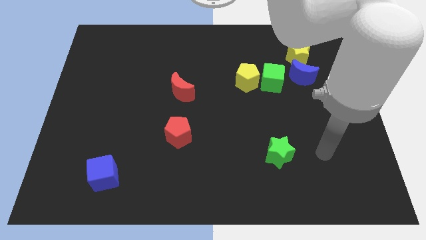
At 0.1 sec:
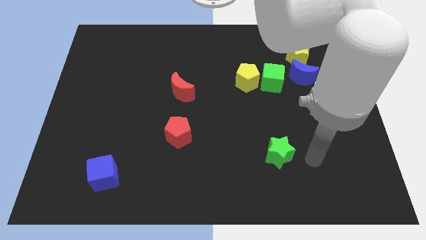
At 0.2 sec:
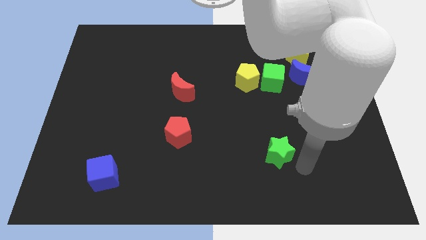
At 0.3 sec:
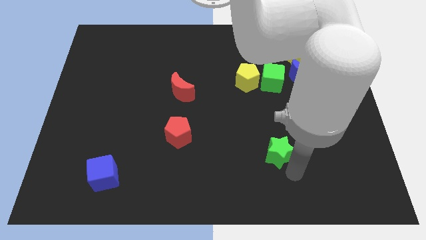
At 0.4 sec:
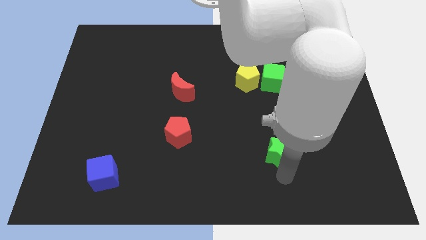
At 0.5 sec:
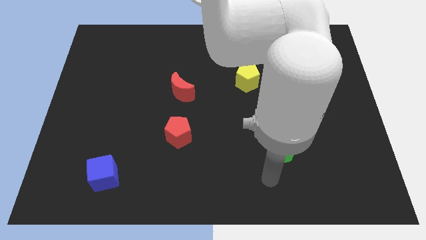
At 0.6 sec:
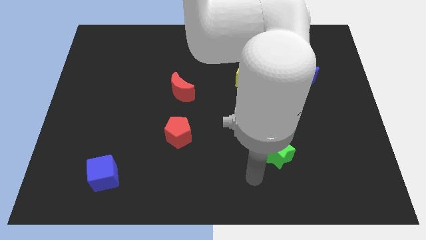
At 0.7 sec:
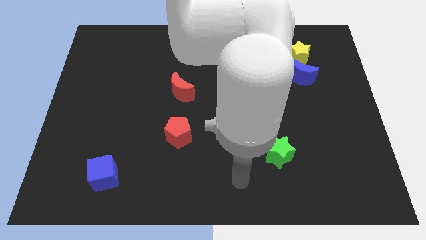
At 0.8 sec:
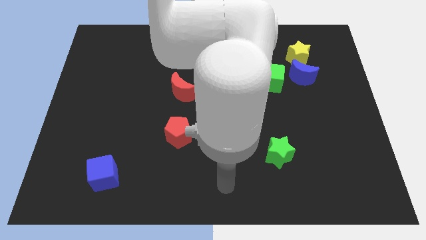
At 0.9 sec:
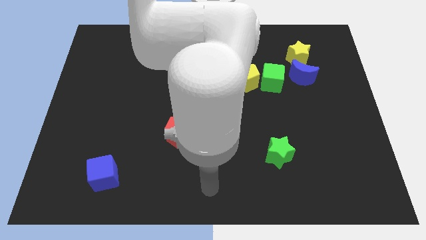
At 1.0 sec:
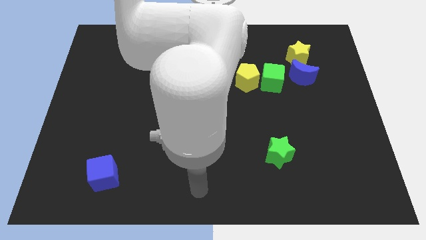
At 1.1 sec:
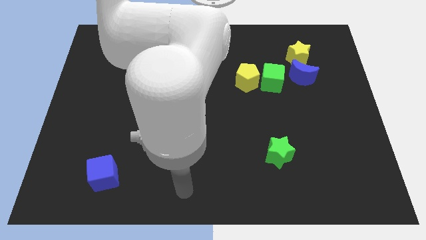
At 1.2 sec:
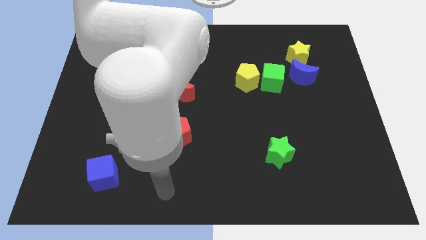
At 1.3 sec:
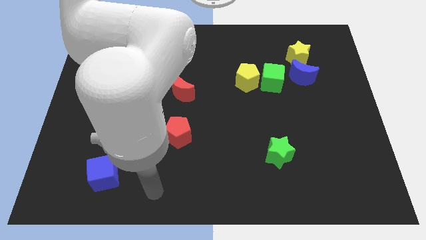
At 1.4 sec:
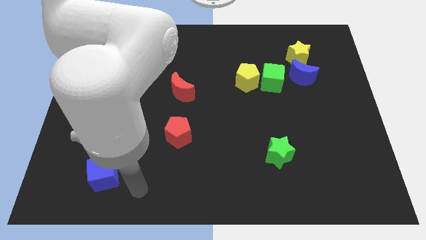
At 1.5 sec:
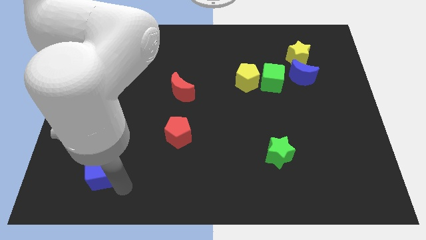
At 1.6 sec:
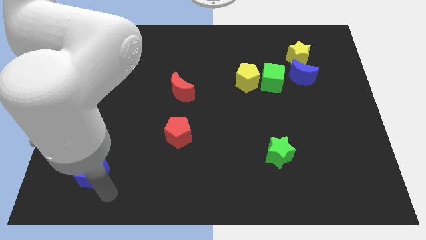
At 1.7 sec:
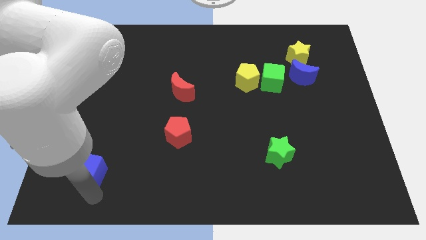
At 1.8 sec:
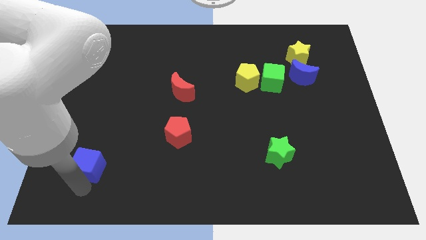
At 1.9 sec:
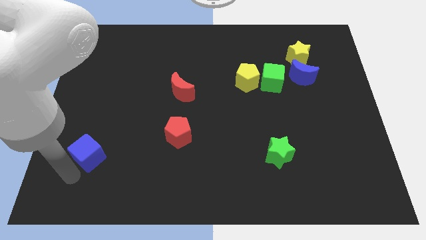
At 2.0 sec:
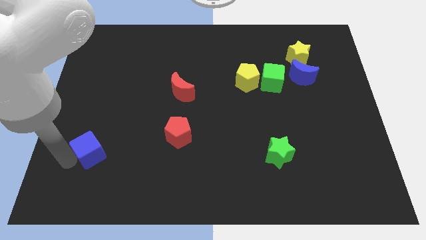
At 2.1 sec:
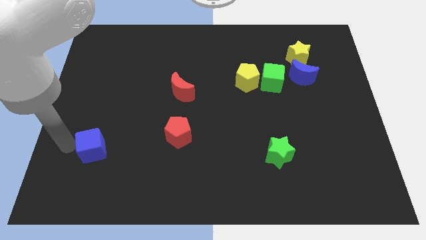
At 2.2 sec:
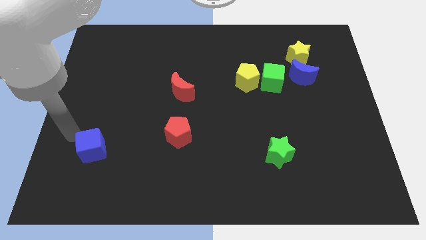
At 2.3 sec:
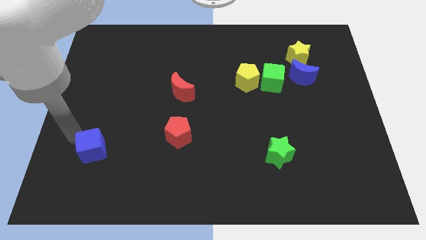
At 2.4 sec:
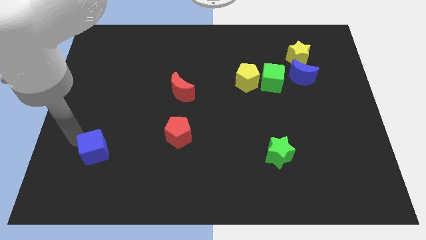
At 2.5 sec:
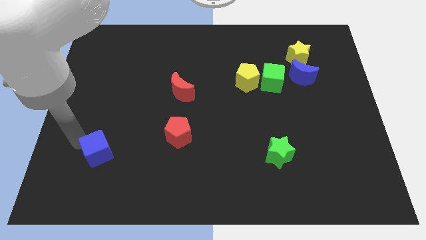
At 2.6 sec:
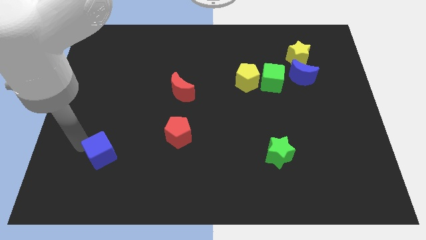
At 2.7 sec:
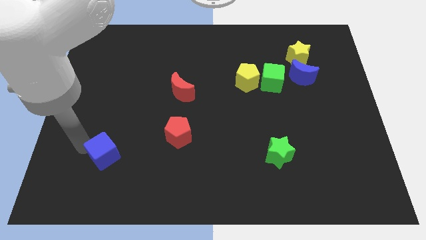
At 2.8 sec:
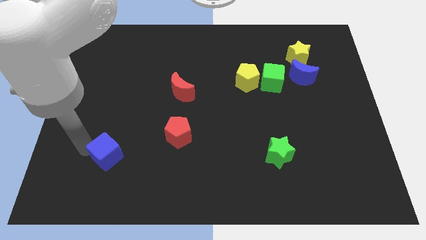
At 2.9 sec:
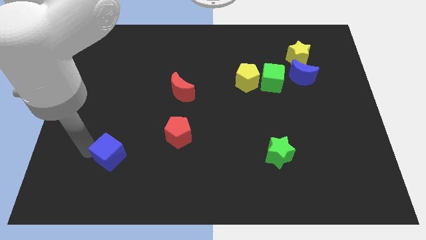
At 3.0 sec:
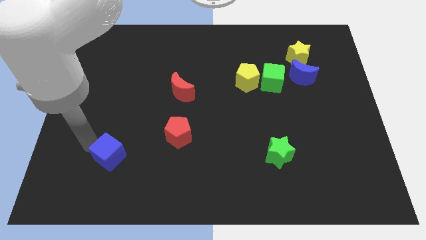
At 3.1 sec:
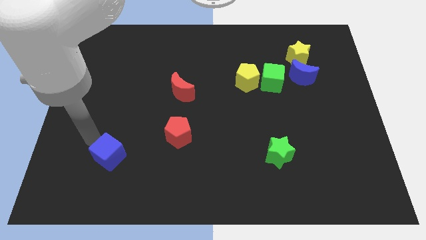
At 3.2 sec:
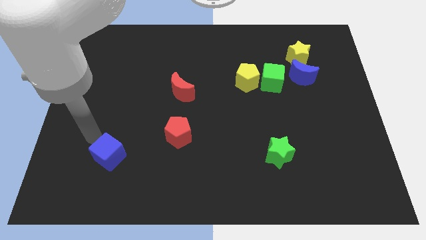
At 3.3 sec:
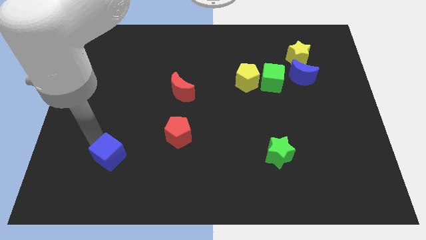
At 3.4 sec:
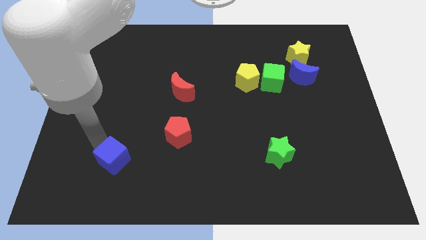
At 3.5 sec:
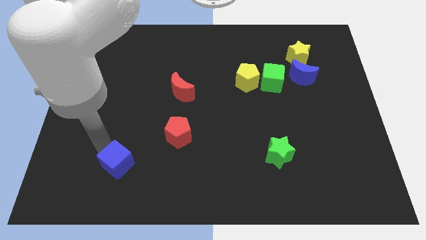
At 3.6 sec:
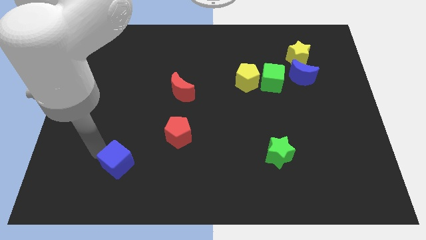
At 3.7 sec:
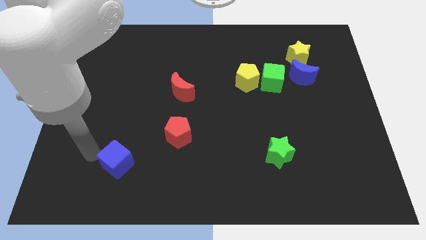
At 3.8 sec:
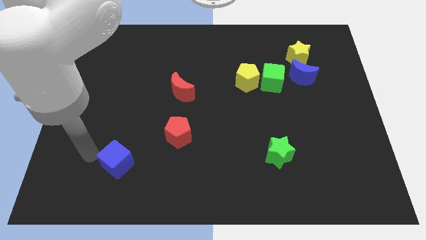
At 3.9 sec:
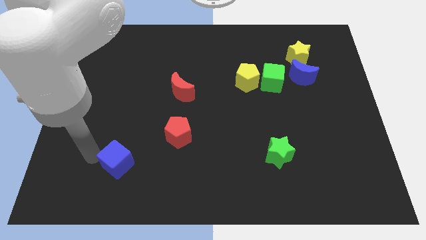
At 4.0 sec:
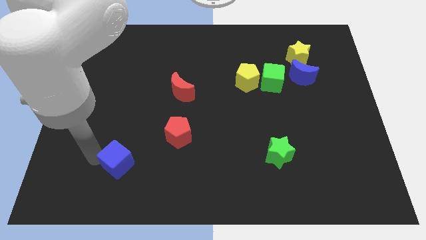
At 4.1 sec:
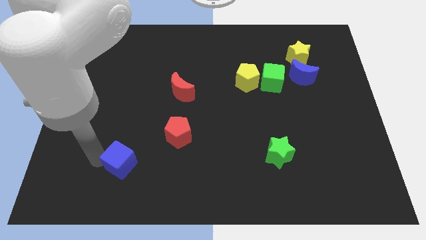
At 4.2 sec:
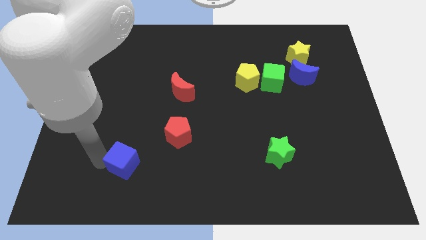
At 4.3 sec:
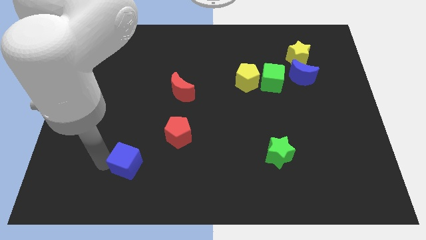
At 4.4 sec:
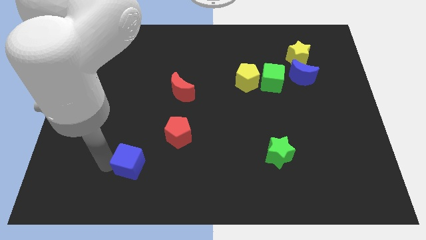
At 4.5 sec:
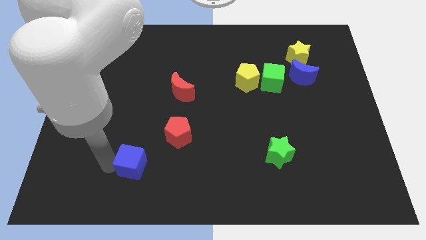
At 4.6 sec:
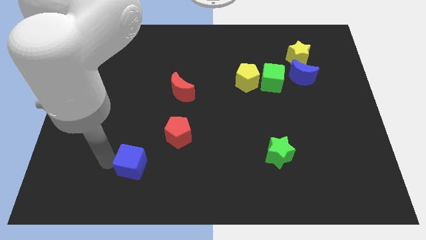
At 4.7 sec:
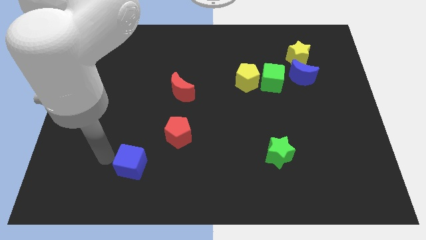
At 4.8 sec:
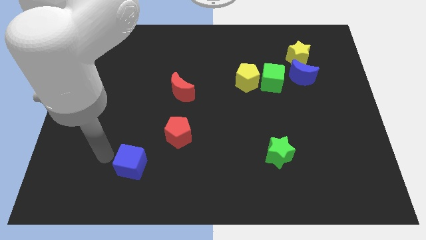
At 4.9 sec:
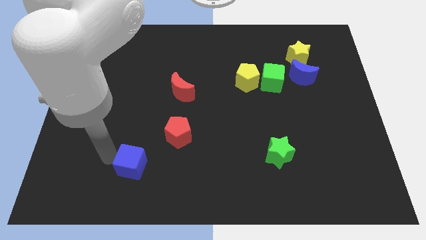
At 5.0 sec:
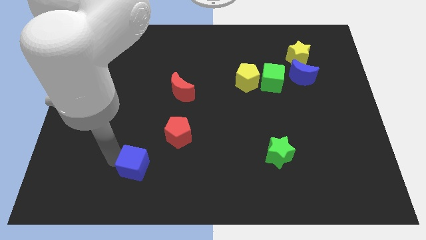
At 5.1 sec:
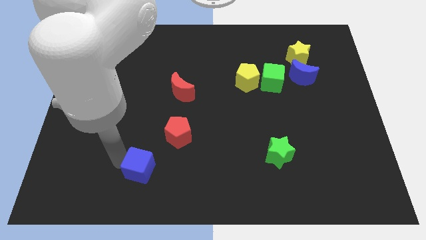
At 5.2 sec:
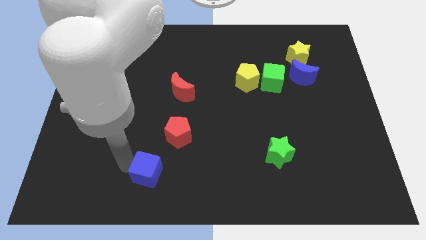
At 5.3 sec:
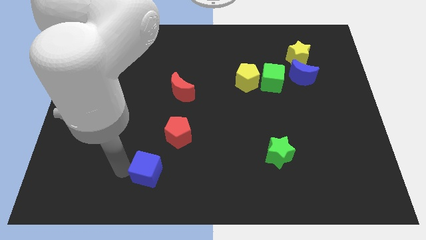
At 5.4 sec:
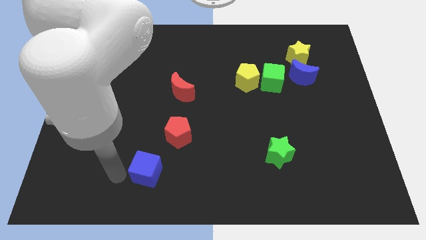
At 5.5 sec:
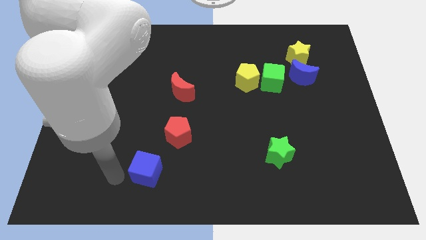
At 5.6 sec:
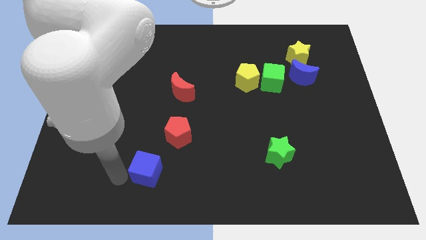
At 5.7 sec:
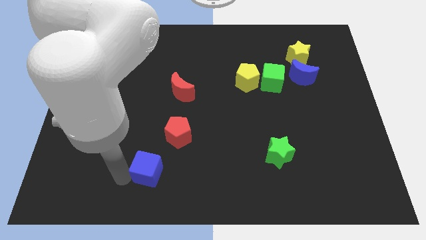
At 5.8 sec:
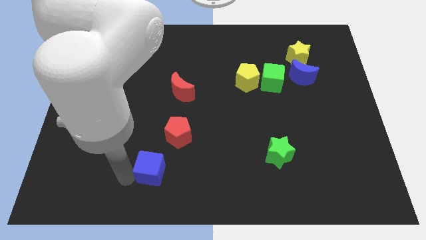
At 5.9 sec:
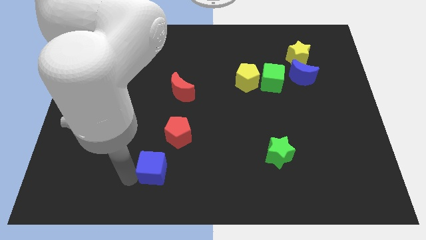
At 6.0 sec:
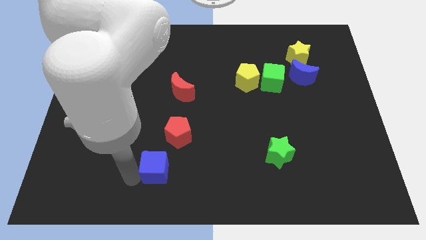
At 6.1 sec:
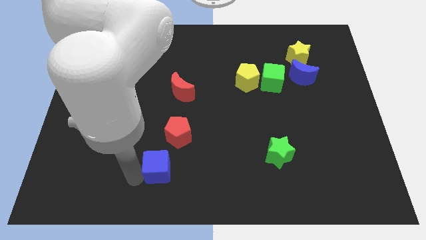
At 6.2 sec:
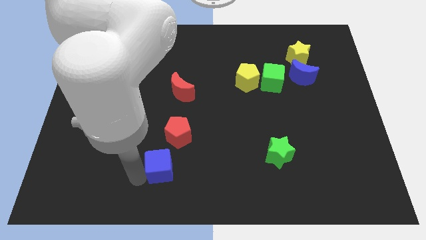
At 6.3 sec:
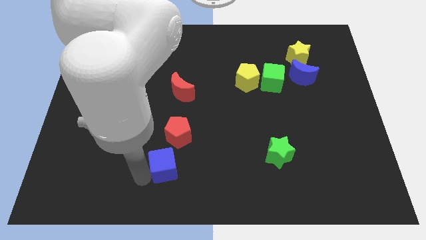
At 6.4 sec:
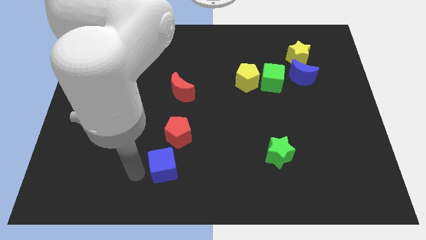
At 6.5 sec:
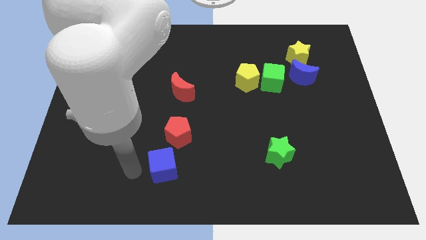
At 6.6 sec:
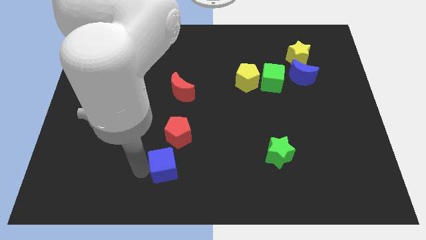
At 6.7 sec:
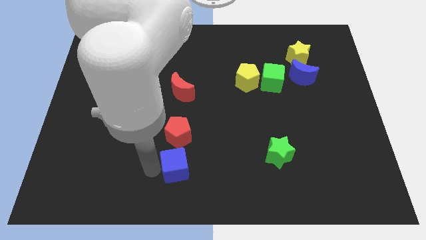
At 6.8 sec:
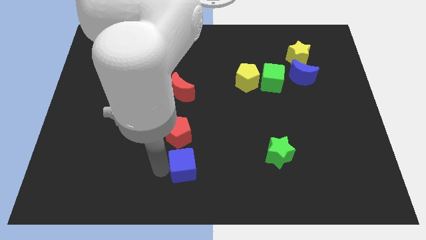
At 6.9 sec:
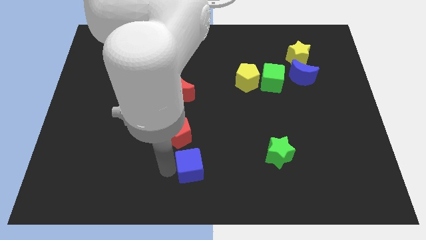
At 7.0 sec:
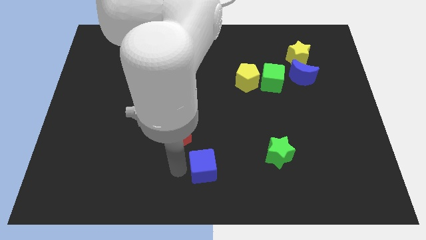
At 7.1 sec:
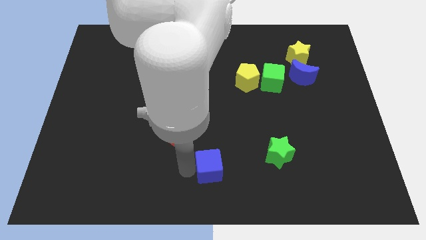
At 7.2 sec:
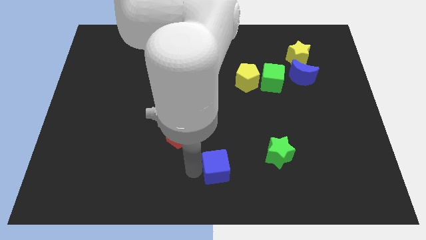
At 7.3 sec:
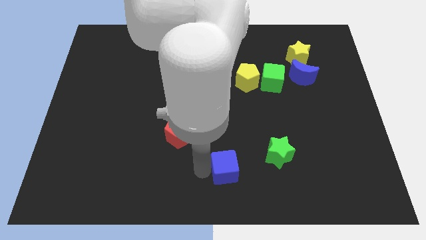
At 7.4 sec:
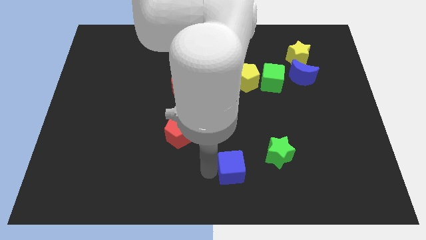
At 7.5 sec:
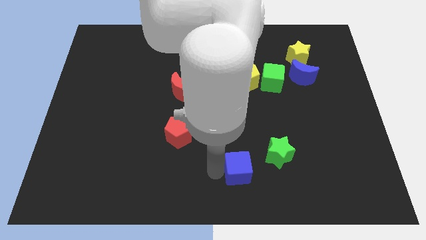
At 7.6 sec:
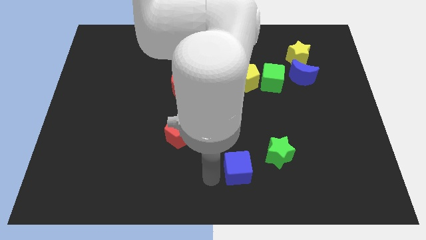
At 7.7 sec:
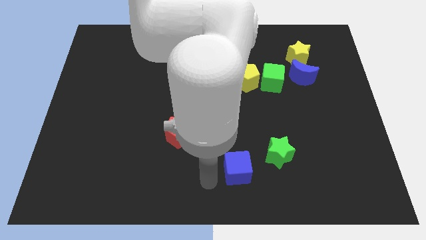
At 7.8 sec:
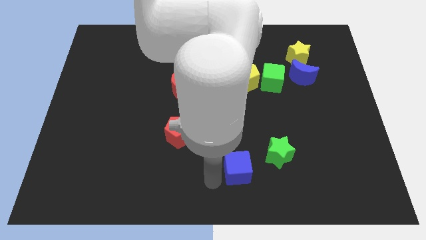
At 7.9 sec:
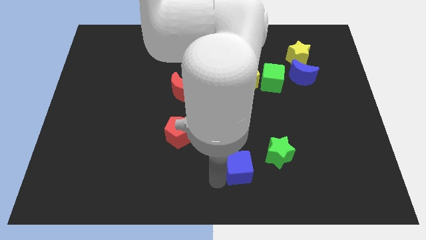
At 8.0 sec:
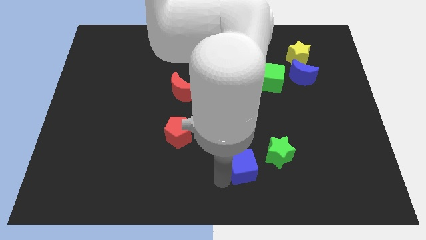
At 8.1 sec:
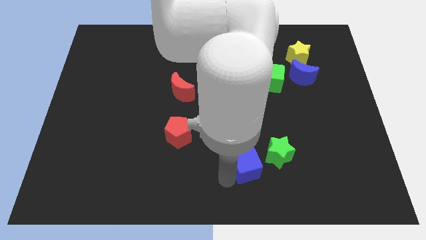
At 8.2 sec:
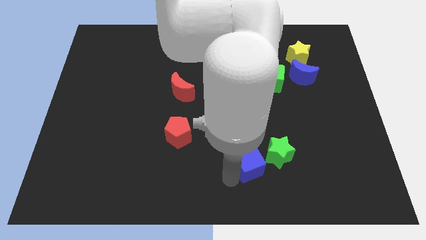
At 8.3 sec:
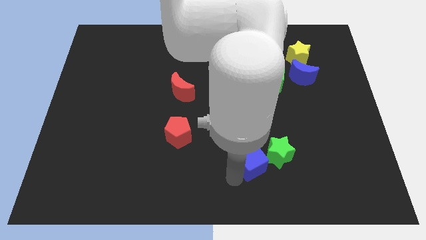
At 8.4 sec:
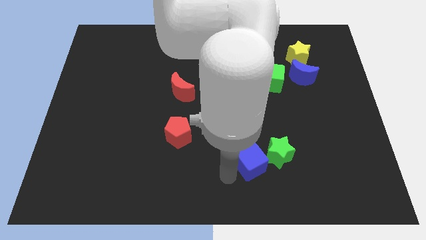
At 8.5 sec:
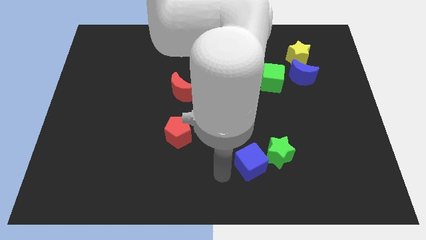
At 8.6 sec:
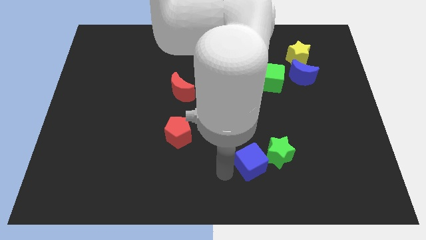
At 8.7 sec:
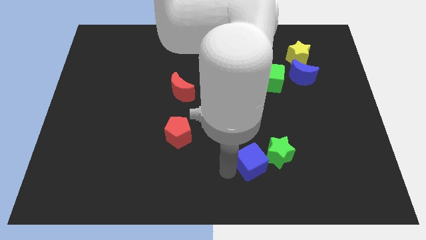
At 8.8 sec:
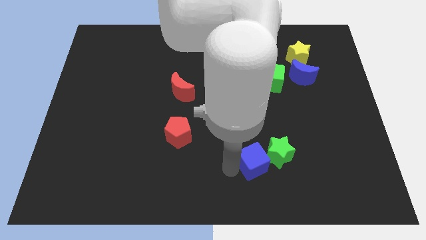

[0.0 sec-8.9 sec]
move the blue cube next to the green star
